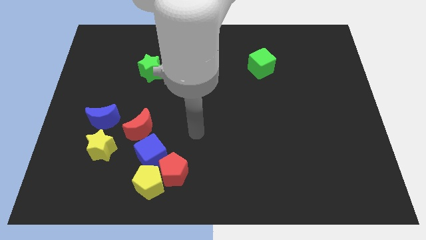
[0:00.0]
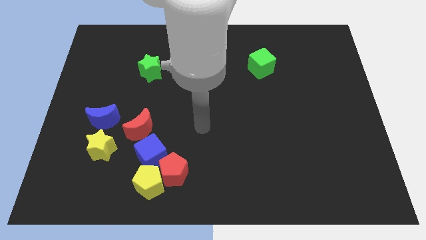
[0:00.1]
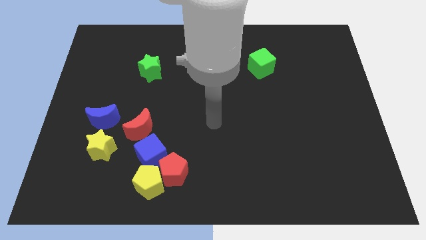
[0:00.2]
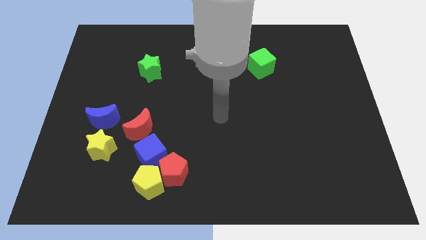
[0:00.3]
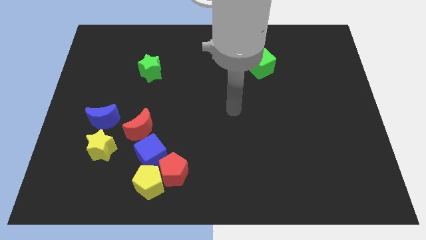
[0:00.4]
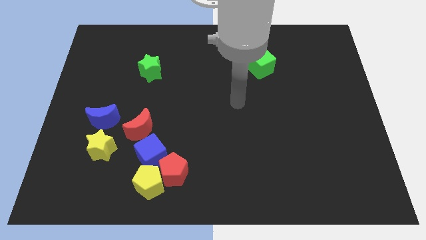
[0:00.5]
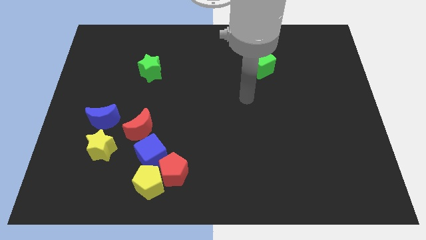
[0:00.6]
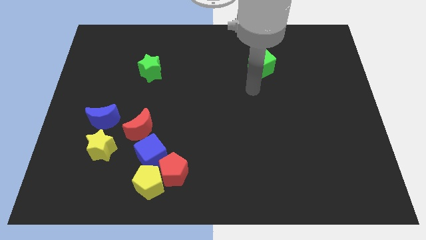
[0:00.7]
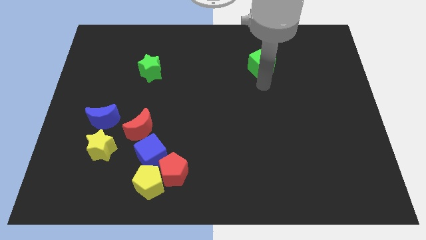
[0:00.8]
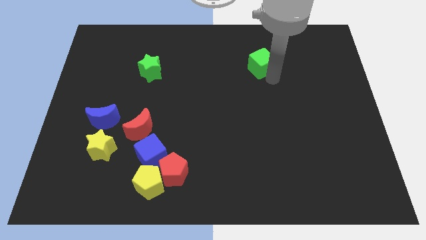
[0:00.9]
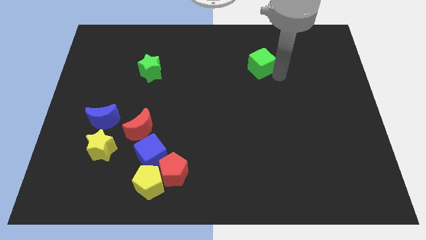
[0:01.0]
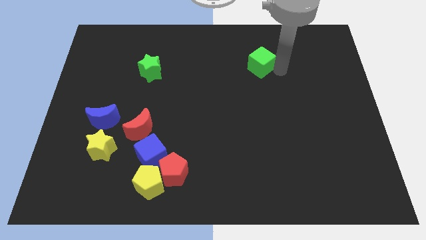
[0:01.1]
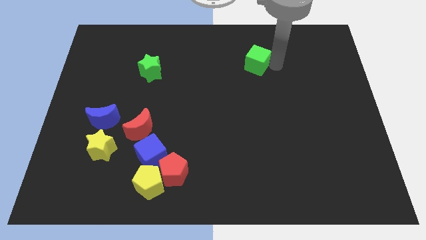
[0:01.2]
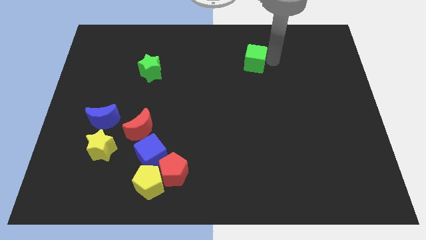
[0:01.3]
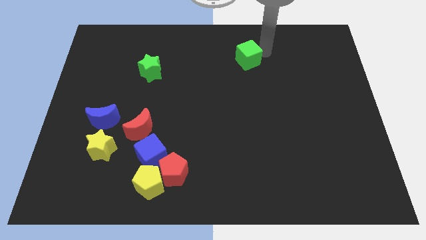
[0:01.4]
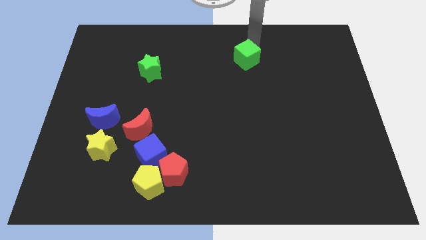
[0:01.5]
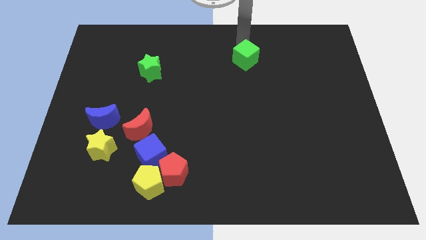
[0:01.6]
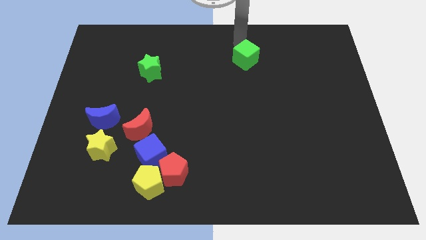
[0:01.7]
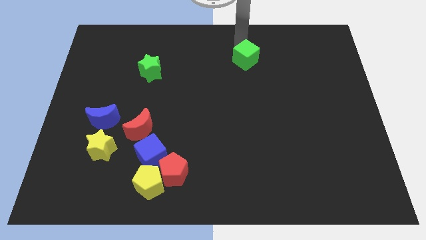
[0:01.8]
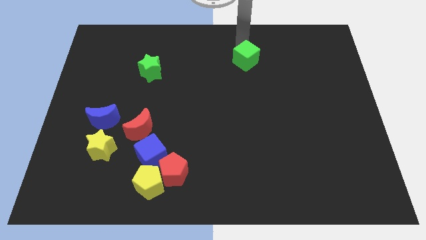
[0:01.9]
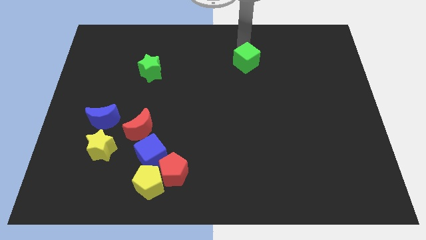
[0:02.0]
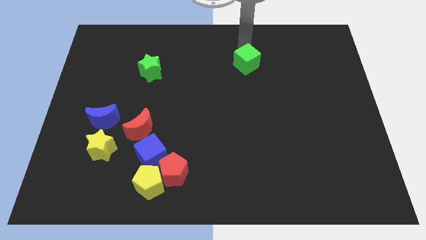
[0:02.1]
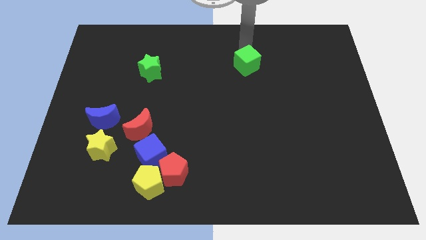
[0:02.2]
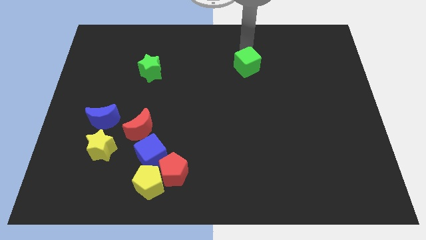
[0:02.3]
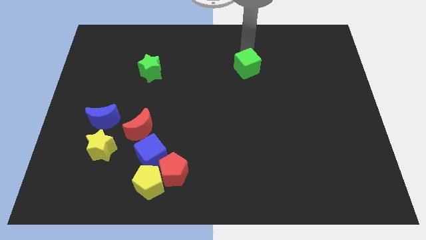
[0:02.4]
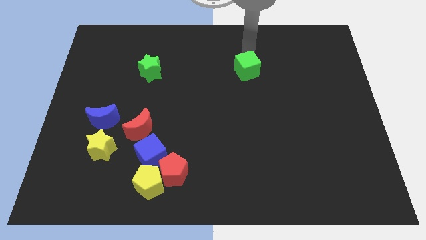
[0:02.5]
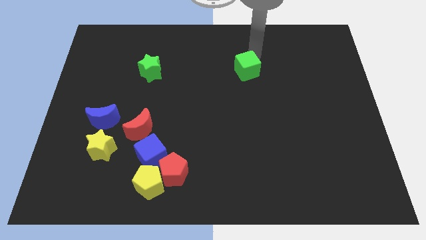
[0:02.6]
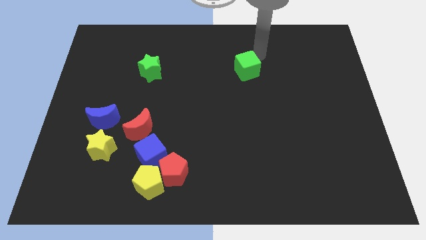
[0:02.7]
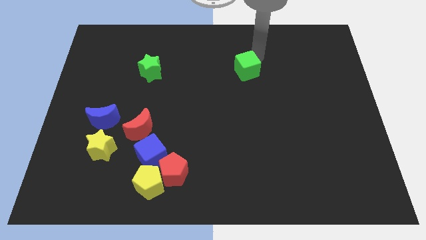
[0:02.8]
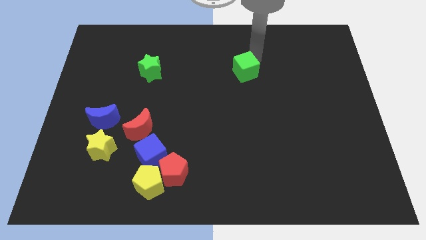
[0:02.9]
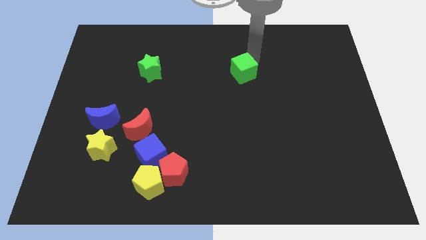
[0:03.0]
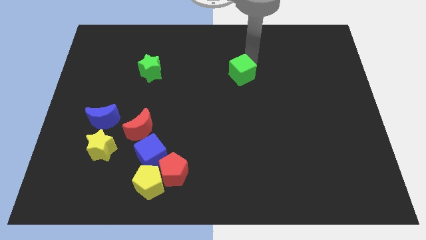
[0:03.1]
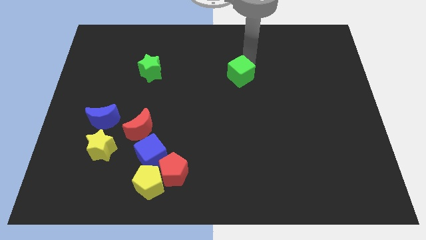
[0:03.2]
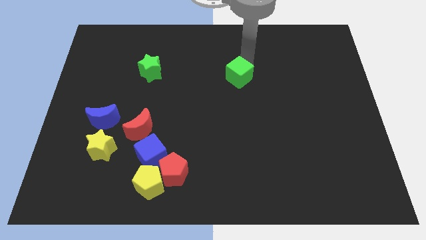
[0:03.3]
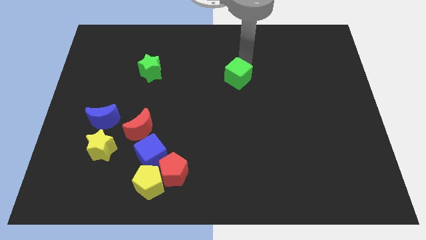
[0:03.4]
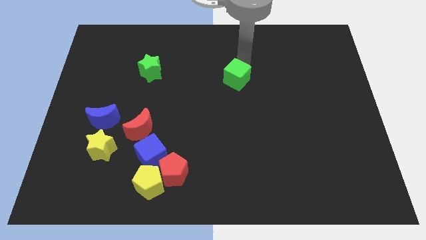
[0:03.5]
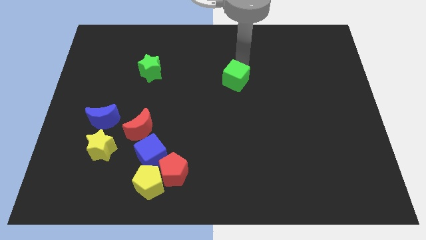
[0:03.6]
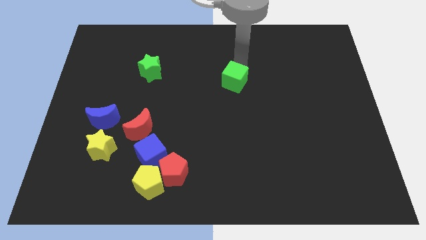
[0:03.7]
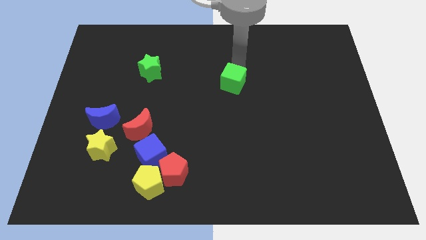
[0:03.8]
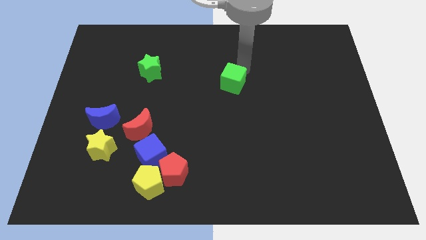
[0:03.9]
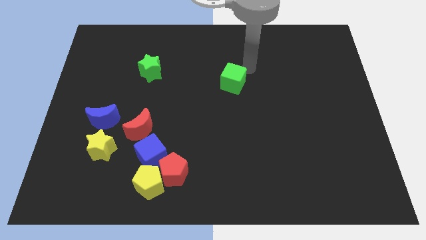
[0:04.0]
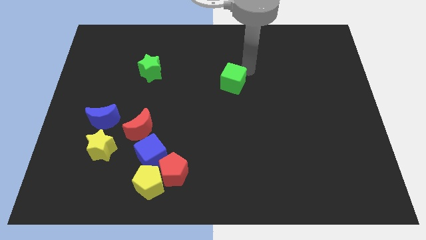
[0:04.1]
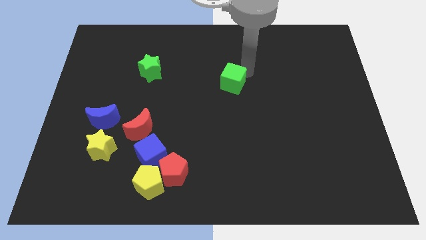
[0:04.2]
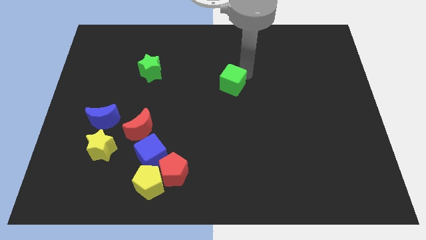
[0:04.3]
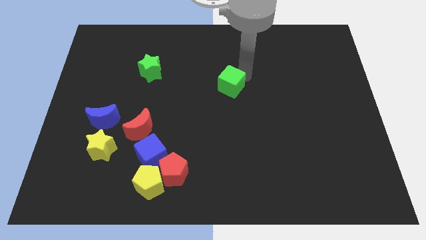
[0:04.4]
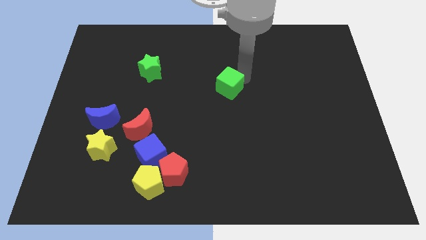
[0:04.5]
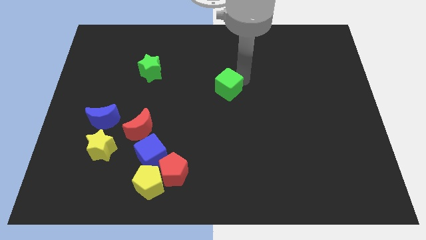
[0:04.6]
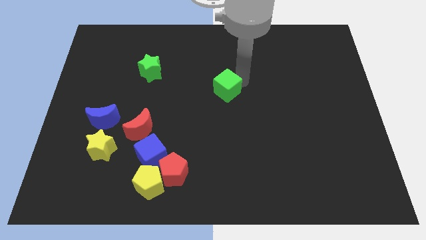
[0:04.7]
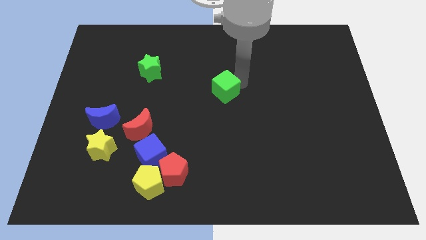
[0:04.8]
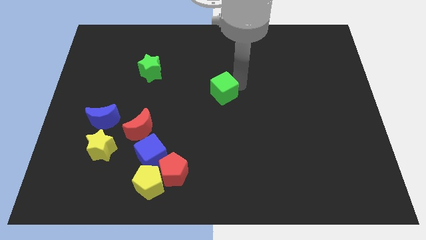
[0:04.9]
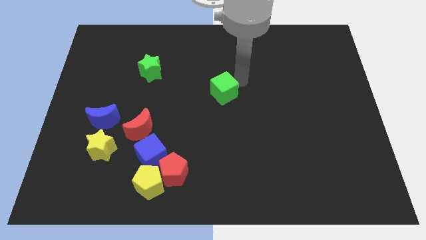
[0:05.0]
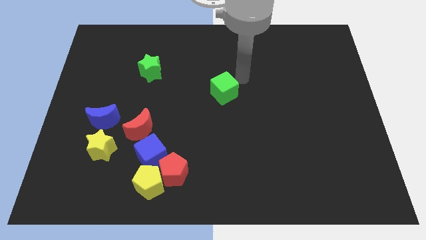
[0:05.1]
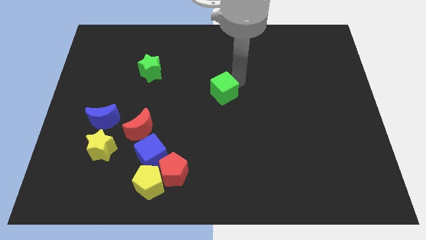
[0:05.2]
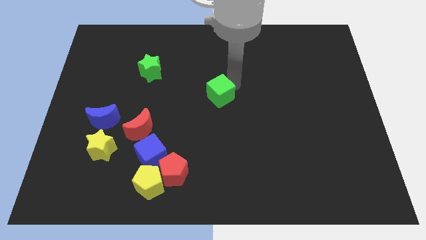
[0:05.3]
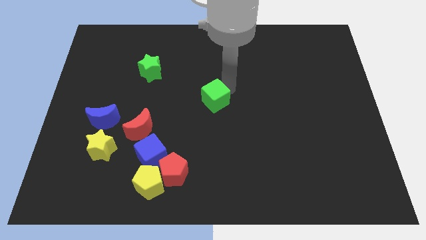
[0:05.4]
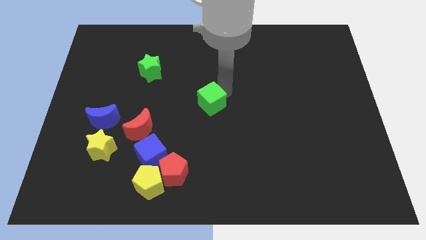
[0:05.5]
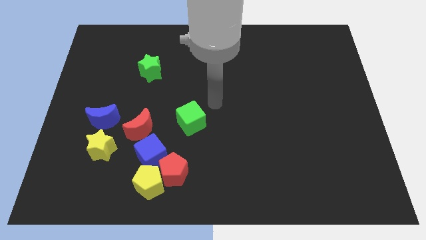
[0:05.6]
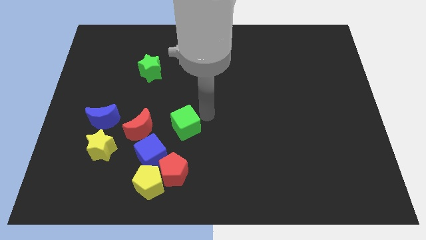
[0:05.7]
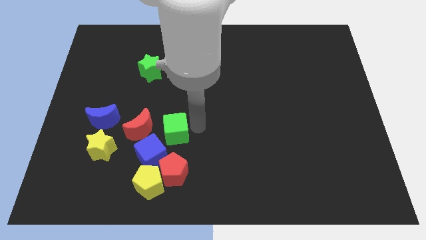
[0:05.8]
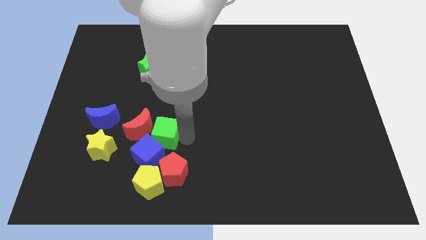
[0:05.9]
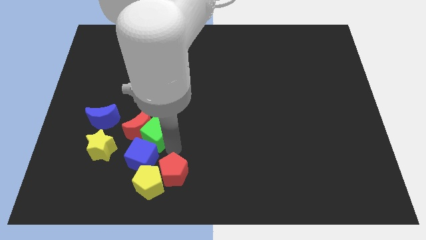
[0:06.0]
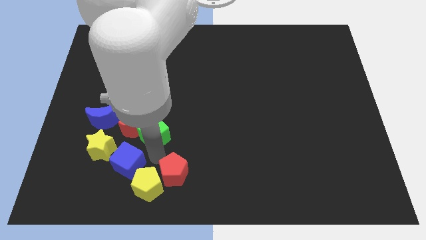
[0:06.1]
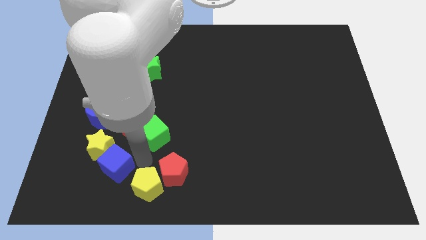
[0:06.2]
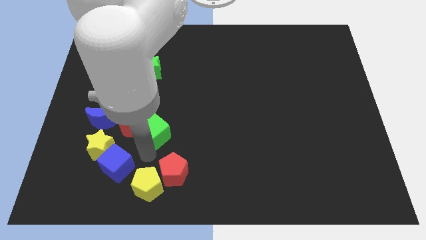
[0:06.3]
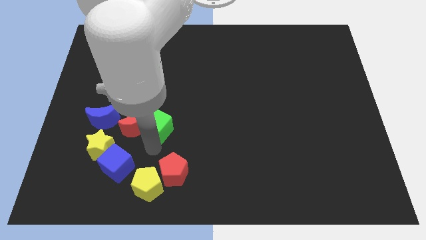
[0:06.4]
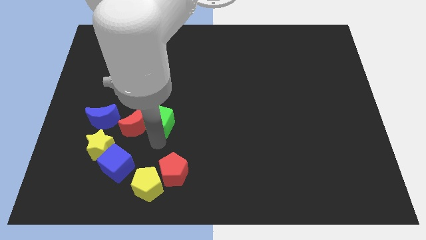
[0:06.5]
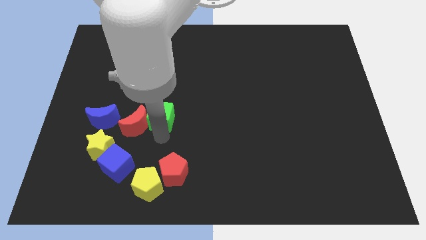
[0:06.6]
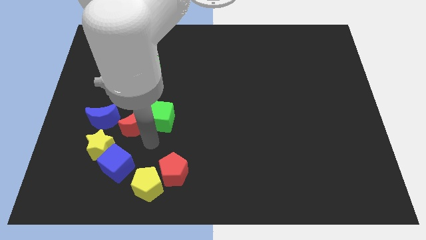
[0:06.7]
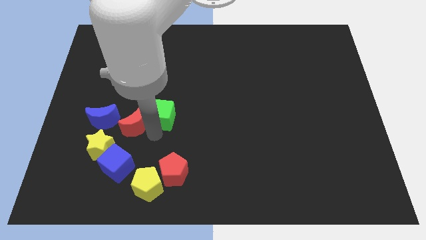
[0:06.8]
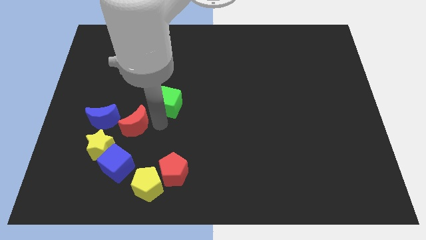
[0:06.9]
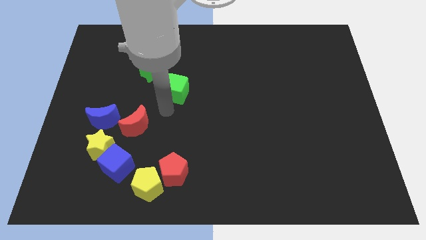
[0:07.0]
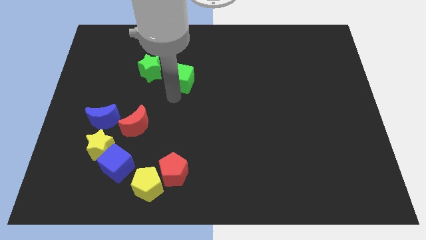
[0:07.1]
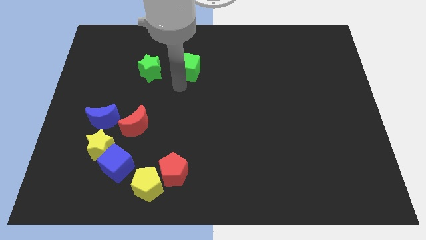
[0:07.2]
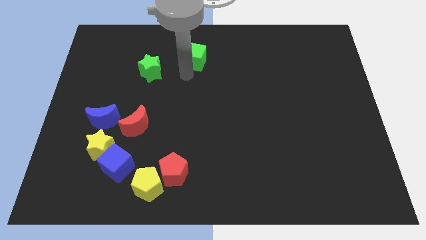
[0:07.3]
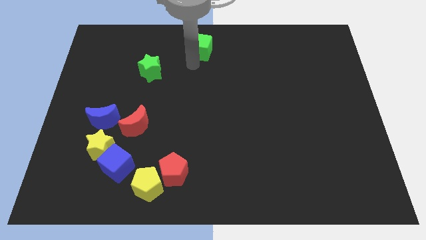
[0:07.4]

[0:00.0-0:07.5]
put the green cube to the top side
